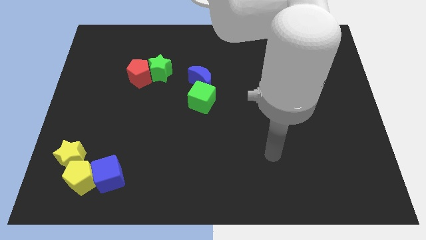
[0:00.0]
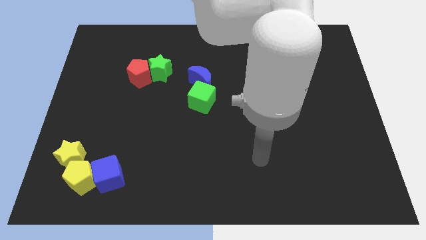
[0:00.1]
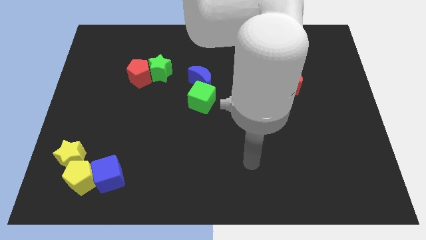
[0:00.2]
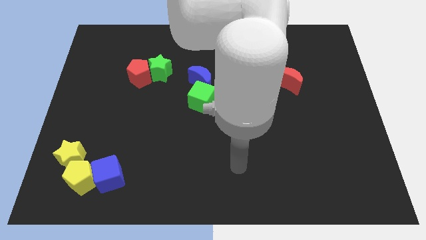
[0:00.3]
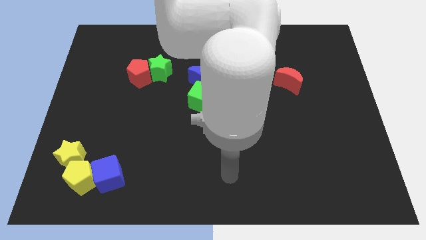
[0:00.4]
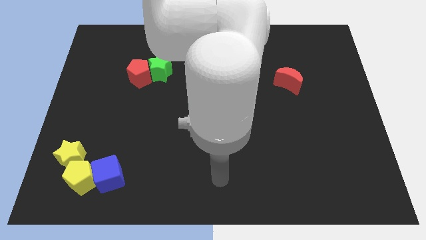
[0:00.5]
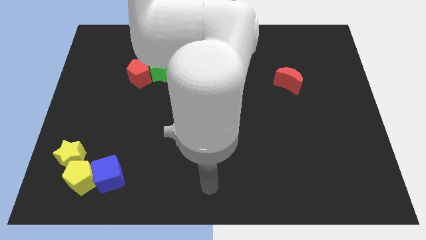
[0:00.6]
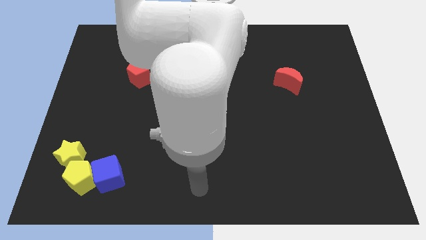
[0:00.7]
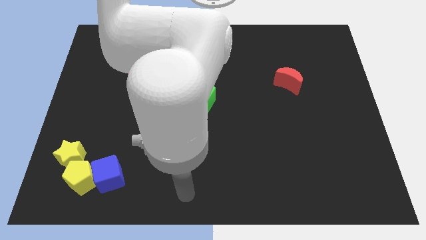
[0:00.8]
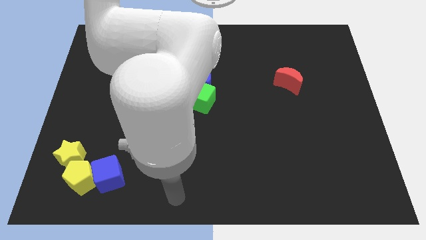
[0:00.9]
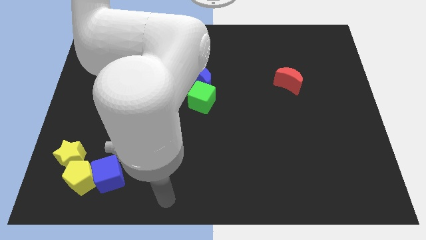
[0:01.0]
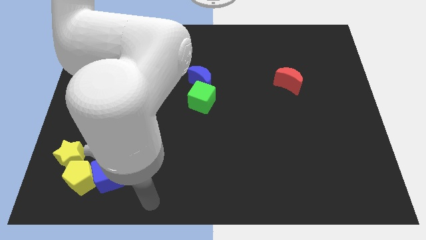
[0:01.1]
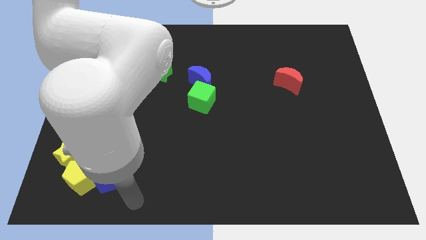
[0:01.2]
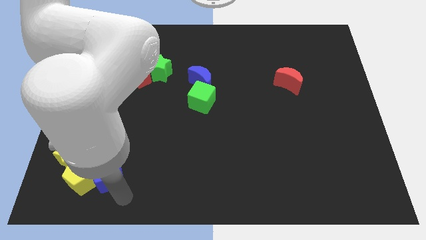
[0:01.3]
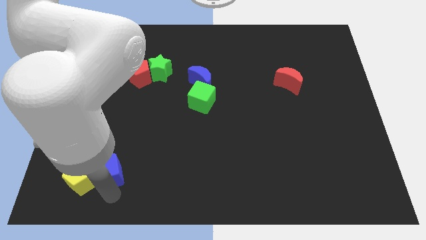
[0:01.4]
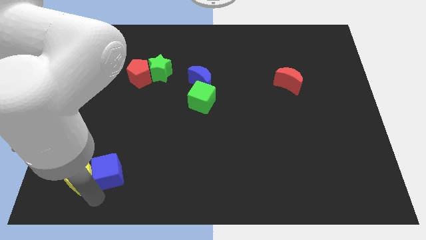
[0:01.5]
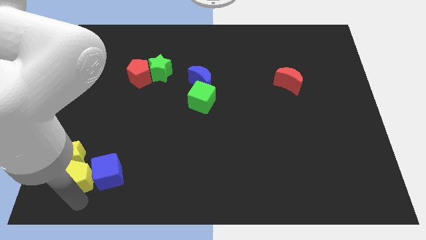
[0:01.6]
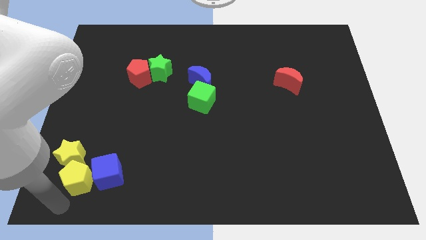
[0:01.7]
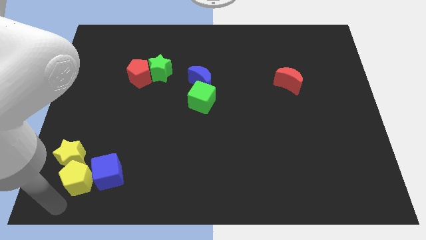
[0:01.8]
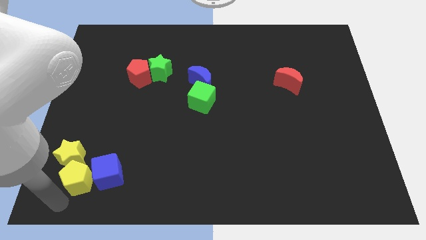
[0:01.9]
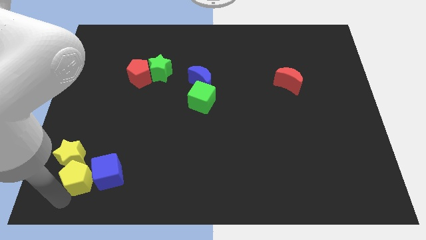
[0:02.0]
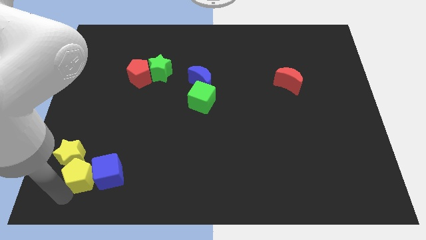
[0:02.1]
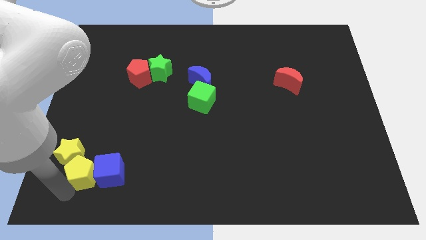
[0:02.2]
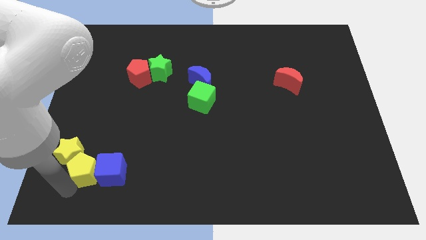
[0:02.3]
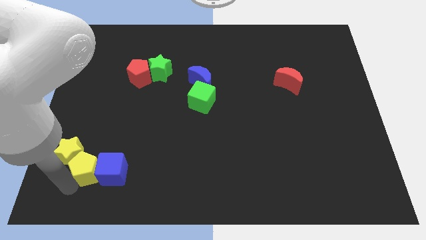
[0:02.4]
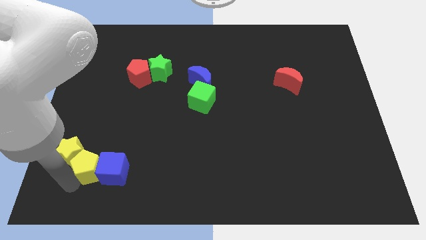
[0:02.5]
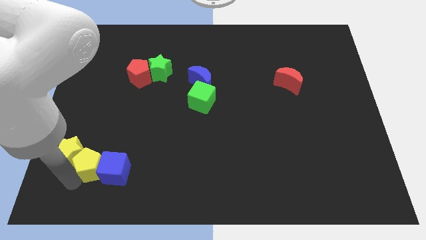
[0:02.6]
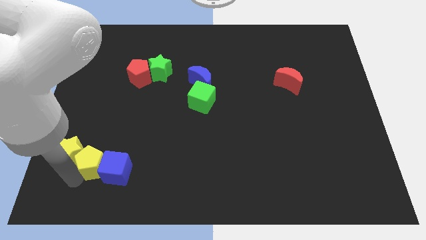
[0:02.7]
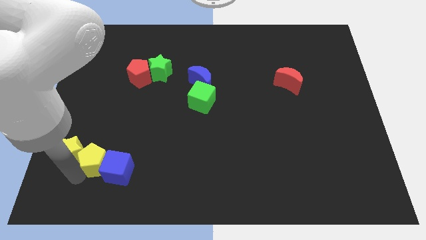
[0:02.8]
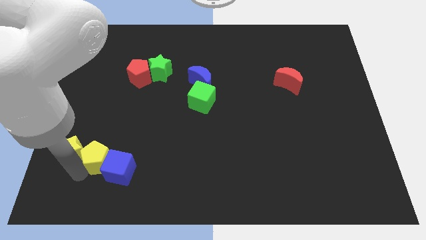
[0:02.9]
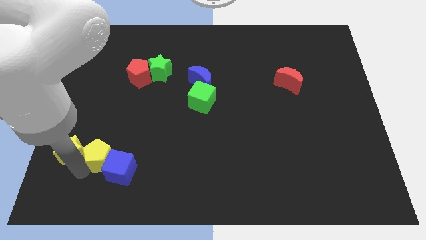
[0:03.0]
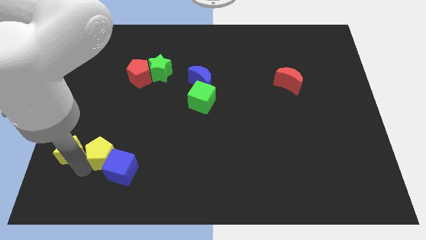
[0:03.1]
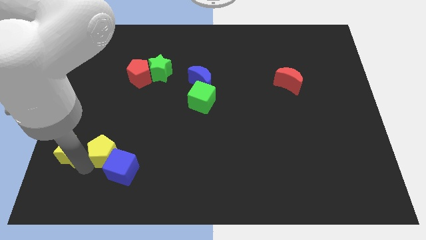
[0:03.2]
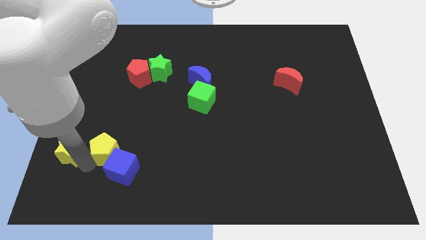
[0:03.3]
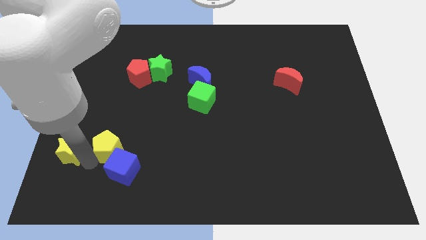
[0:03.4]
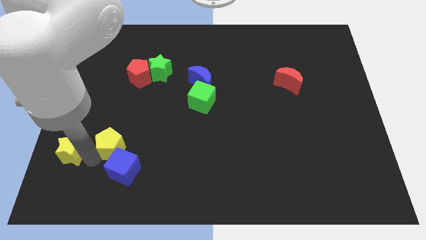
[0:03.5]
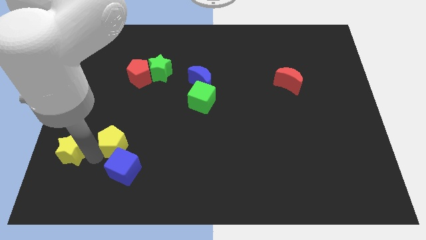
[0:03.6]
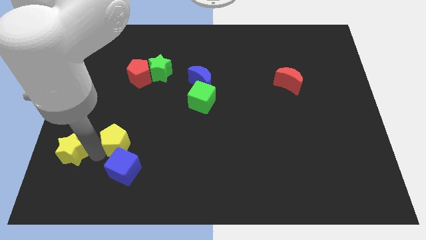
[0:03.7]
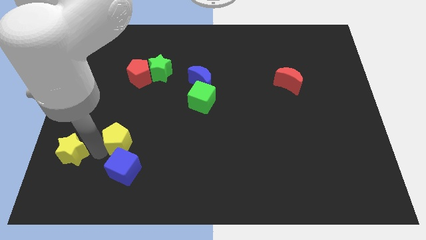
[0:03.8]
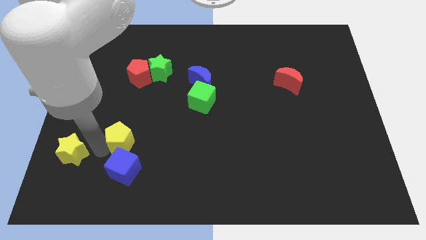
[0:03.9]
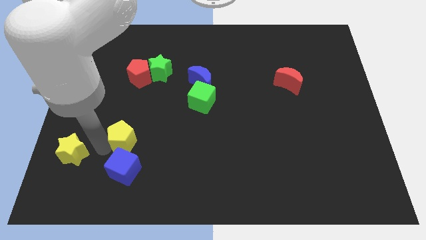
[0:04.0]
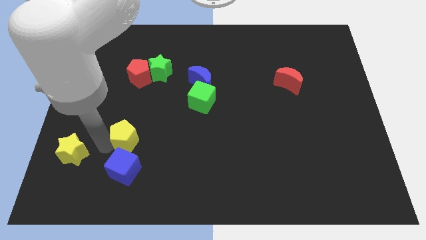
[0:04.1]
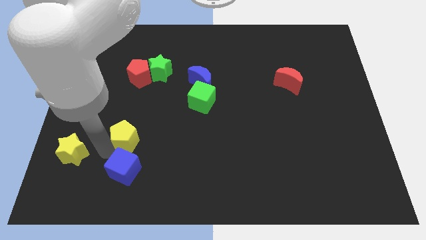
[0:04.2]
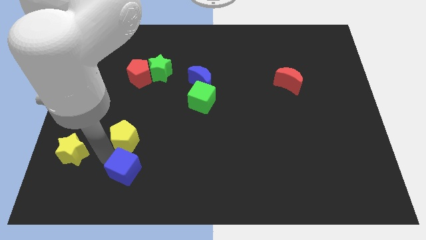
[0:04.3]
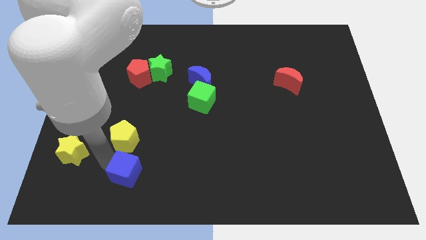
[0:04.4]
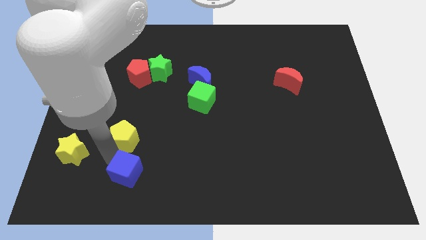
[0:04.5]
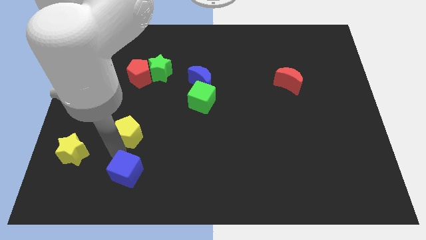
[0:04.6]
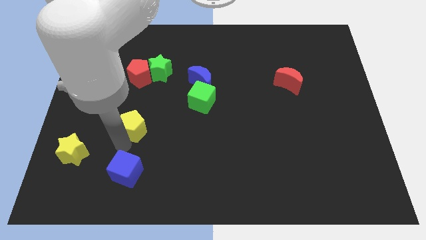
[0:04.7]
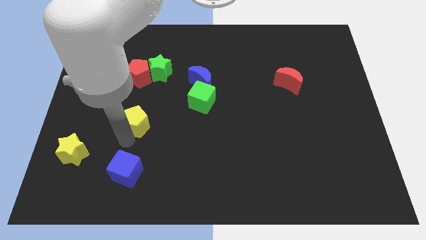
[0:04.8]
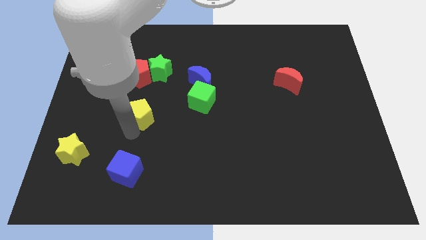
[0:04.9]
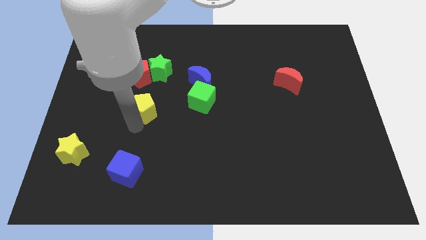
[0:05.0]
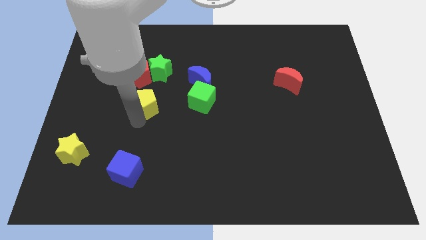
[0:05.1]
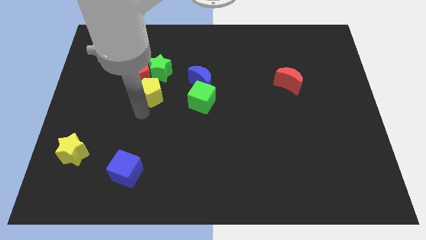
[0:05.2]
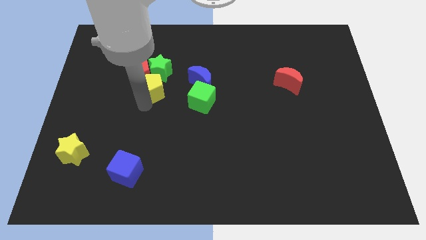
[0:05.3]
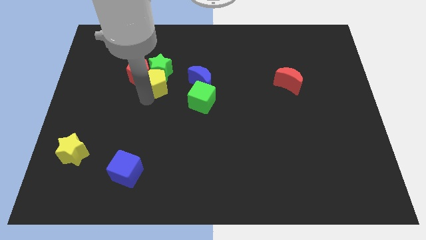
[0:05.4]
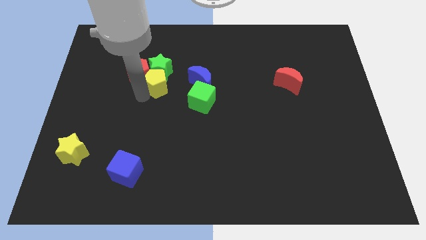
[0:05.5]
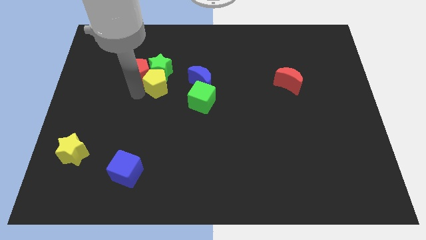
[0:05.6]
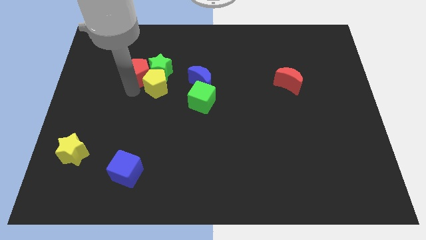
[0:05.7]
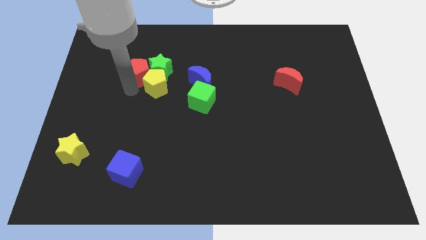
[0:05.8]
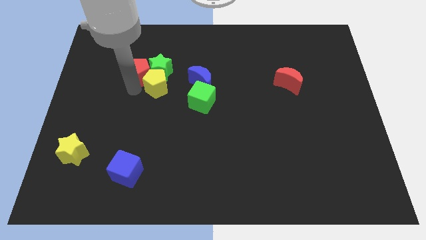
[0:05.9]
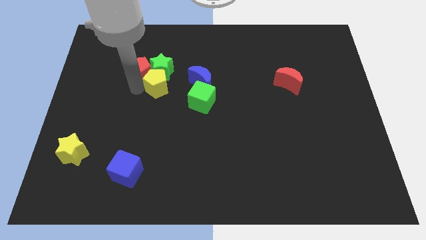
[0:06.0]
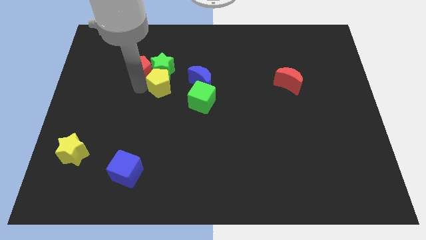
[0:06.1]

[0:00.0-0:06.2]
put the yellow pentagon diagonally up and to the left of the green cube
